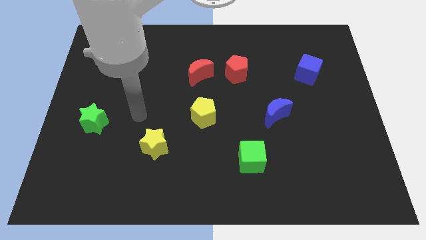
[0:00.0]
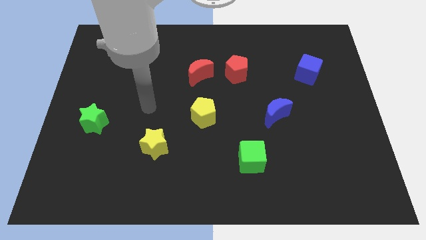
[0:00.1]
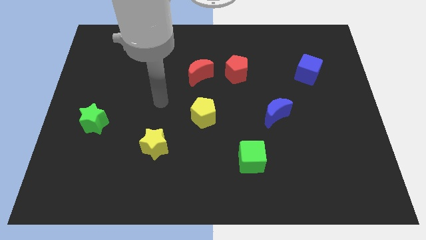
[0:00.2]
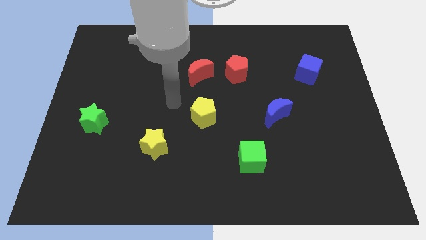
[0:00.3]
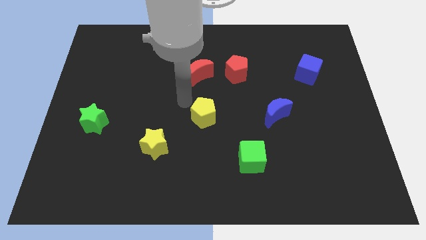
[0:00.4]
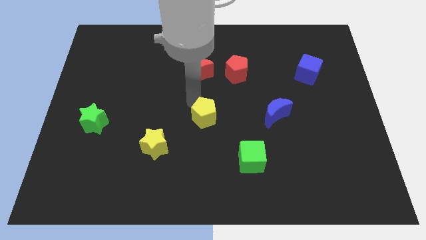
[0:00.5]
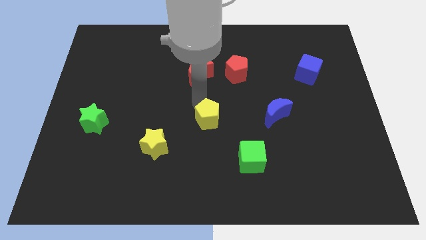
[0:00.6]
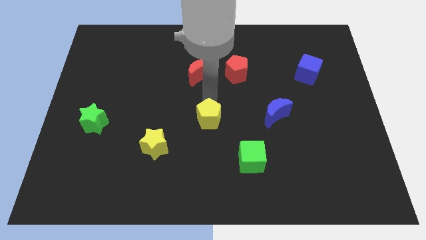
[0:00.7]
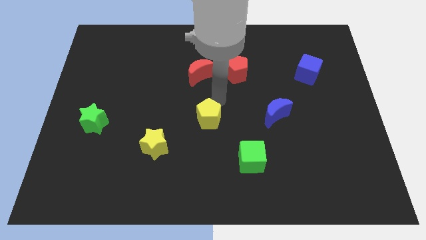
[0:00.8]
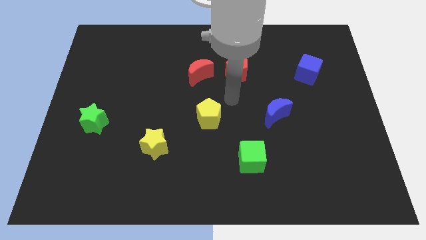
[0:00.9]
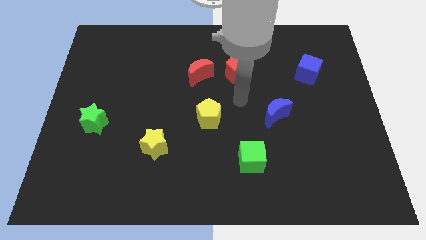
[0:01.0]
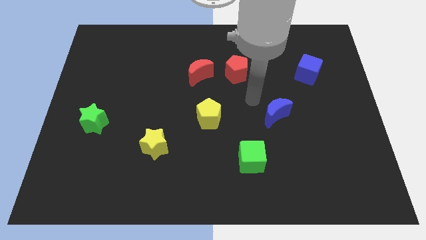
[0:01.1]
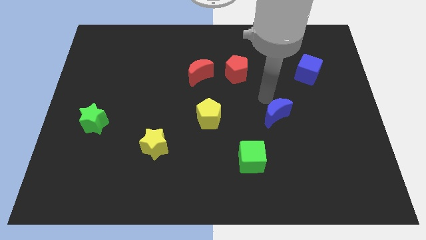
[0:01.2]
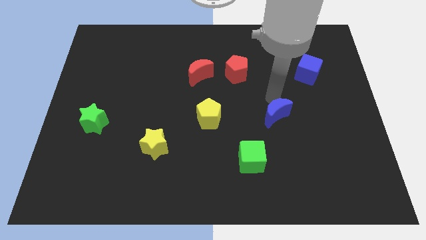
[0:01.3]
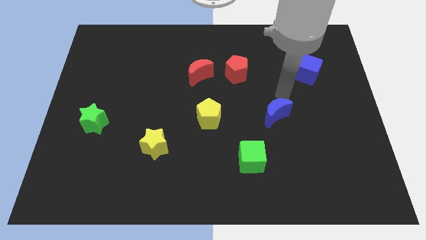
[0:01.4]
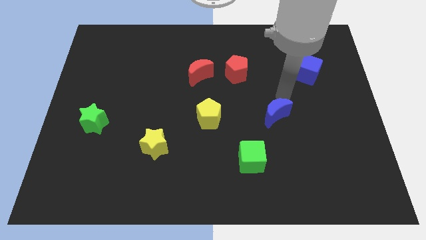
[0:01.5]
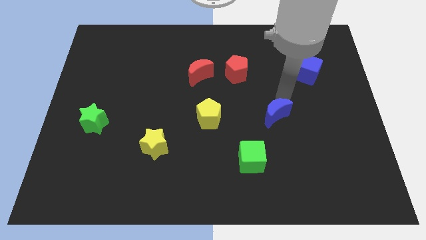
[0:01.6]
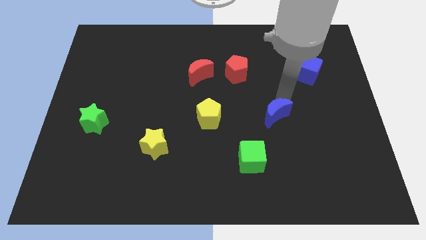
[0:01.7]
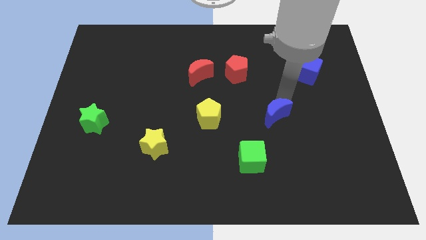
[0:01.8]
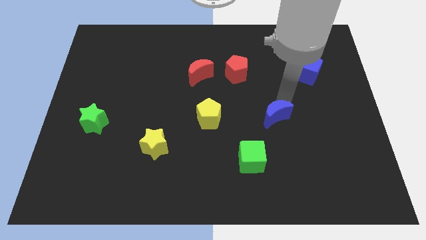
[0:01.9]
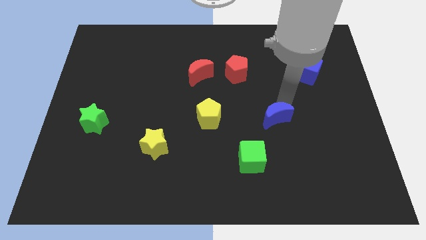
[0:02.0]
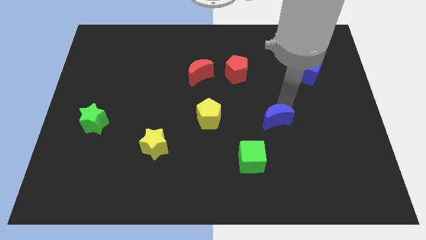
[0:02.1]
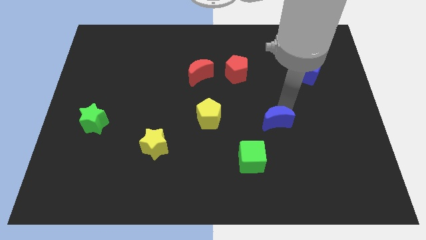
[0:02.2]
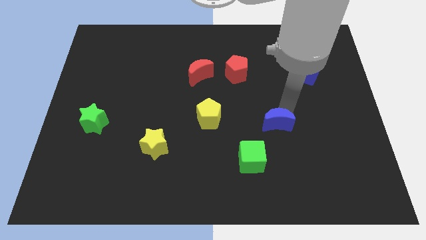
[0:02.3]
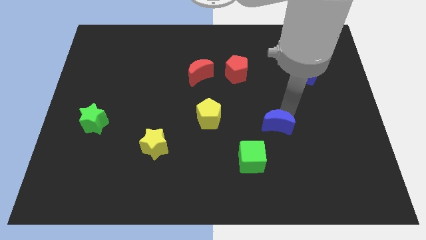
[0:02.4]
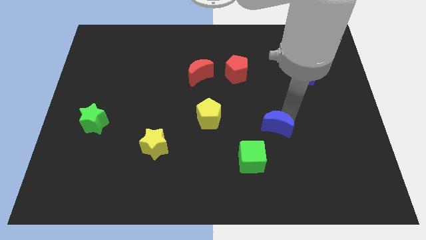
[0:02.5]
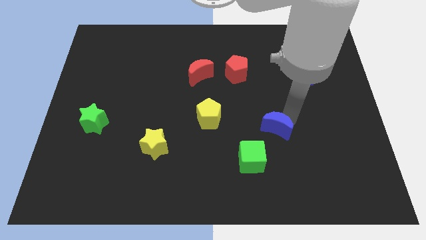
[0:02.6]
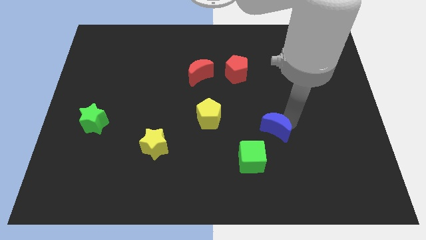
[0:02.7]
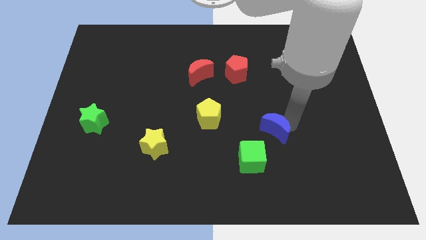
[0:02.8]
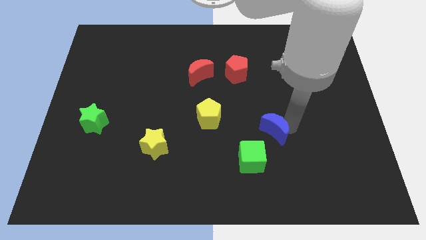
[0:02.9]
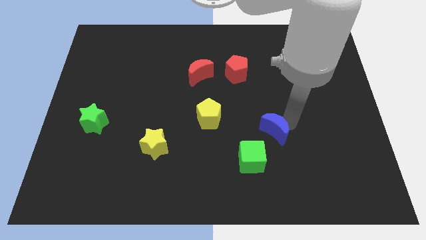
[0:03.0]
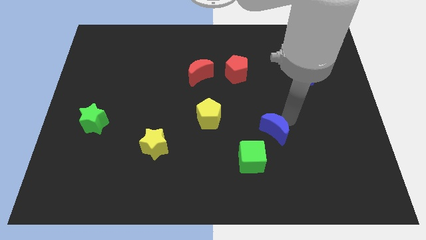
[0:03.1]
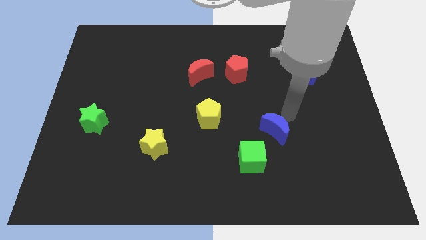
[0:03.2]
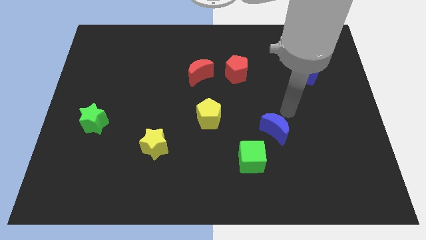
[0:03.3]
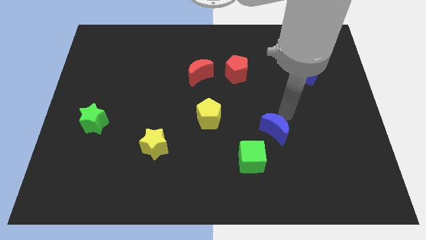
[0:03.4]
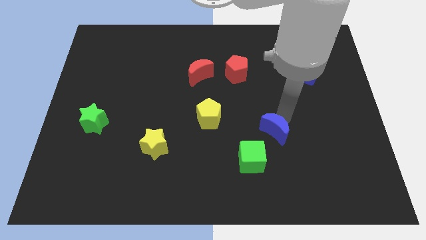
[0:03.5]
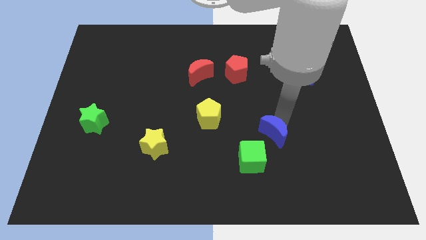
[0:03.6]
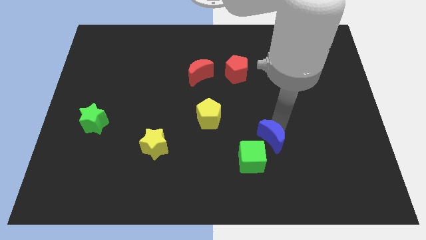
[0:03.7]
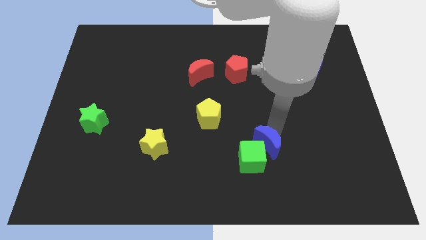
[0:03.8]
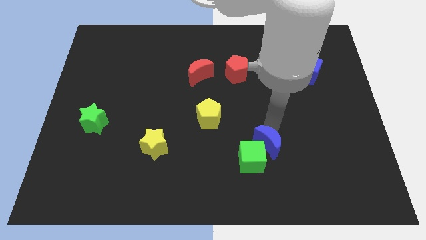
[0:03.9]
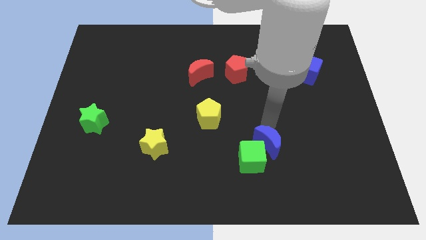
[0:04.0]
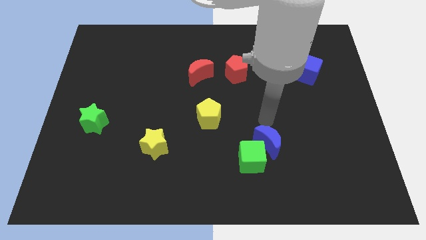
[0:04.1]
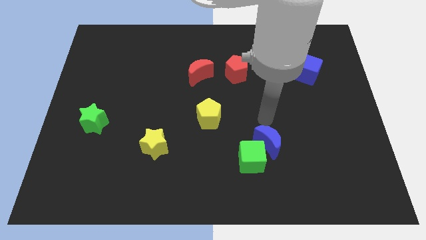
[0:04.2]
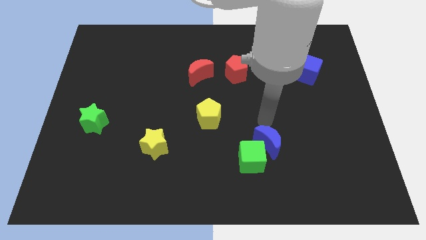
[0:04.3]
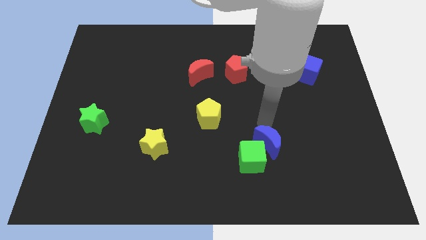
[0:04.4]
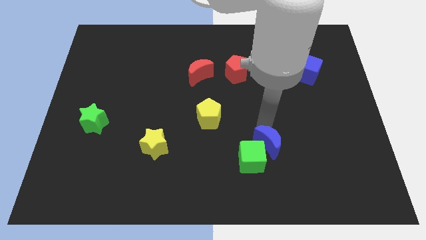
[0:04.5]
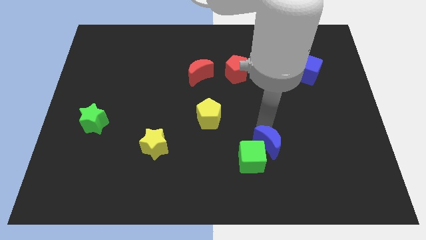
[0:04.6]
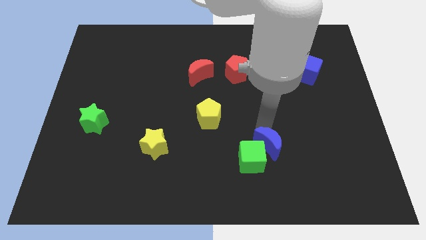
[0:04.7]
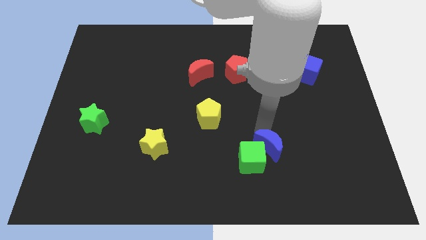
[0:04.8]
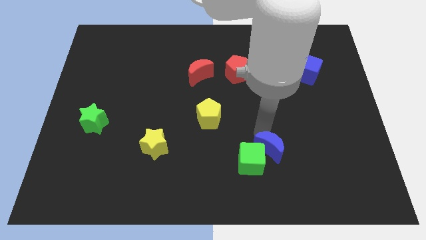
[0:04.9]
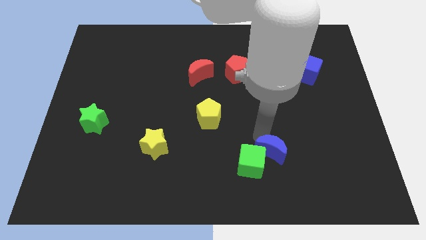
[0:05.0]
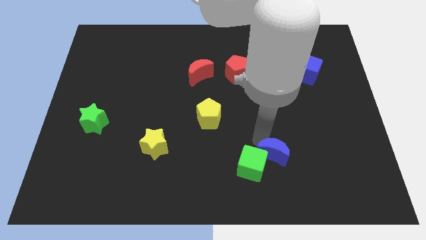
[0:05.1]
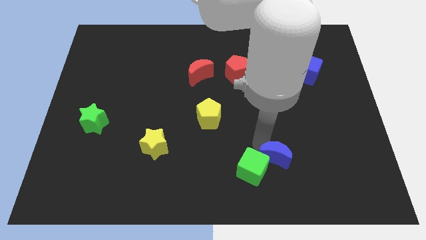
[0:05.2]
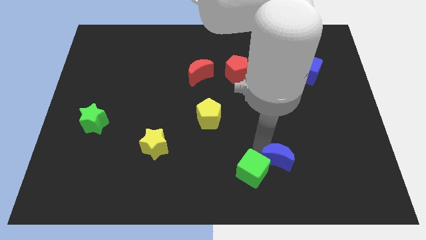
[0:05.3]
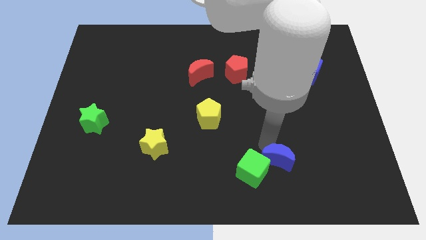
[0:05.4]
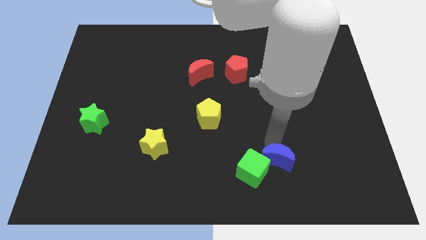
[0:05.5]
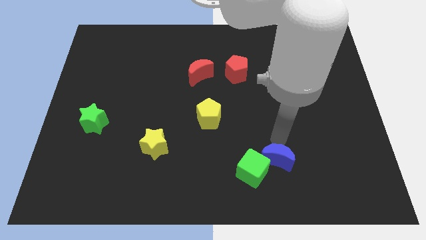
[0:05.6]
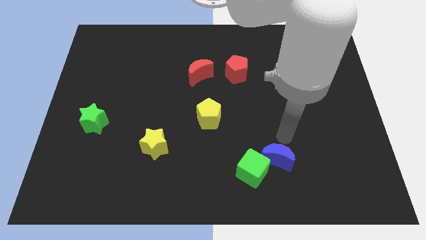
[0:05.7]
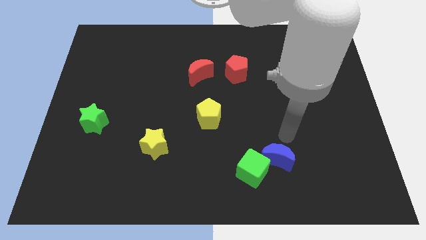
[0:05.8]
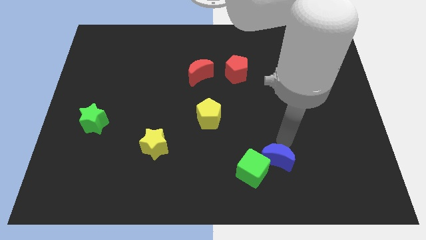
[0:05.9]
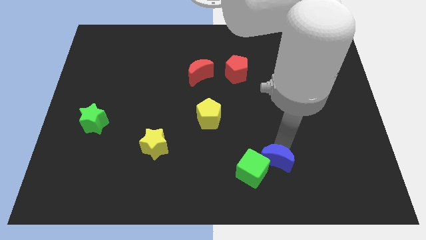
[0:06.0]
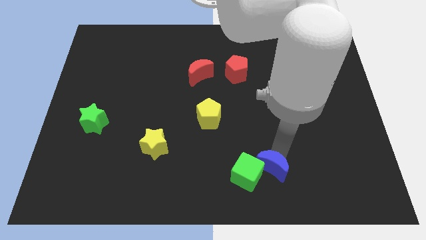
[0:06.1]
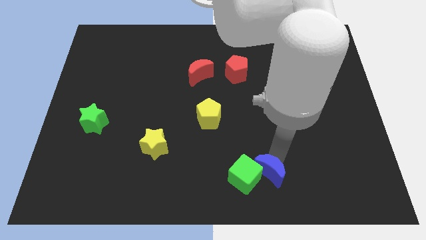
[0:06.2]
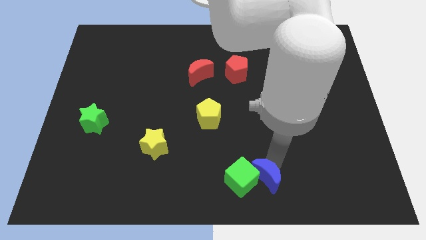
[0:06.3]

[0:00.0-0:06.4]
put the blue moon to the bottom

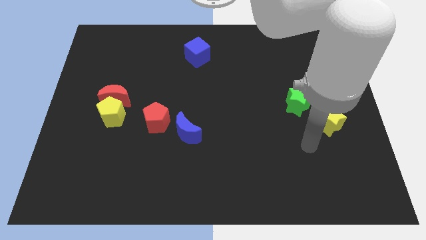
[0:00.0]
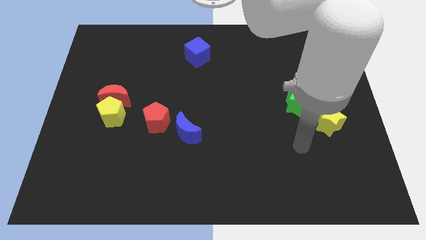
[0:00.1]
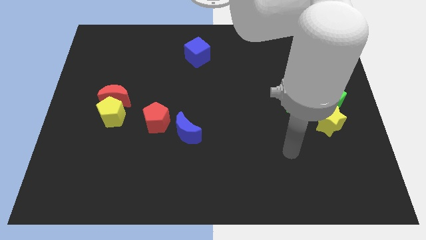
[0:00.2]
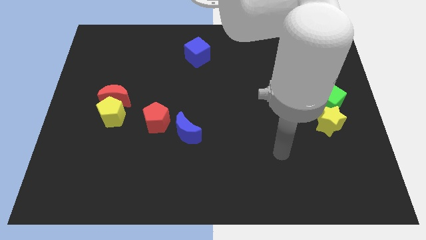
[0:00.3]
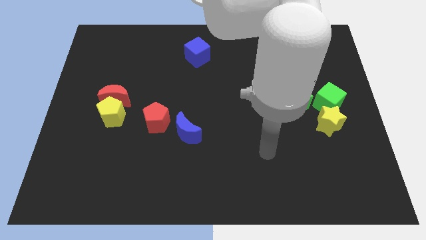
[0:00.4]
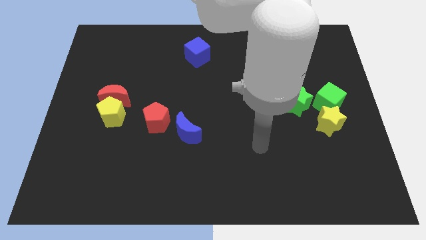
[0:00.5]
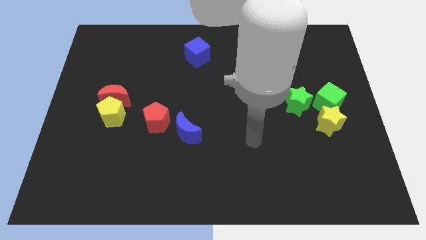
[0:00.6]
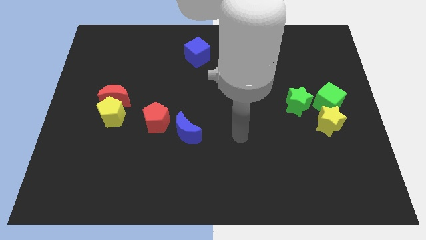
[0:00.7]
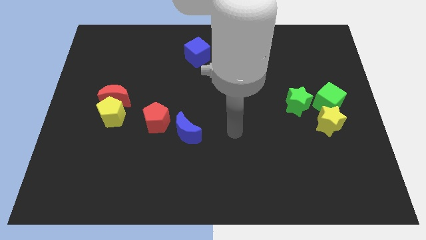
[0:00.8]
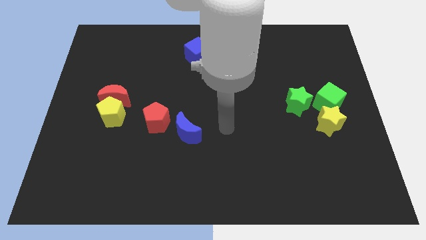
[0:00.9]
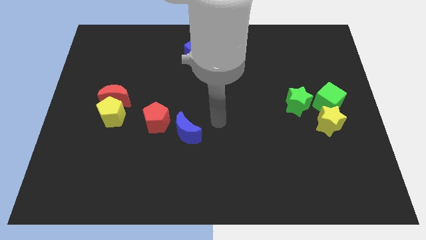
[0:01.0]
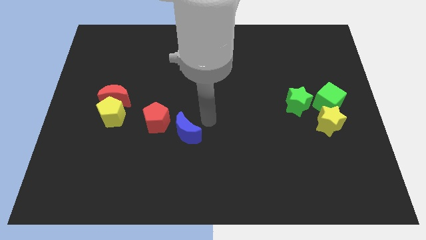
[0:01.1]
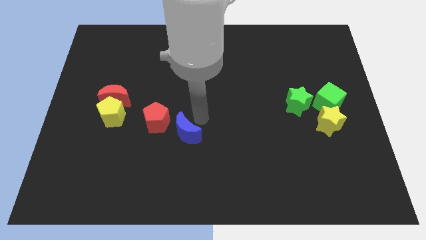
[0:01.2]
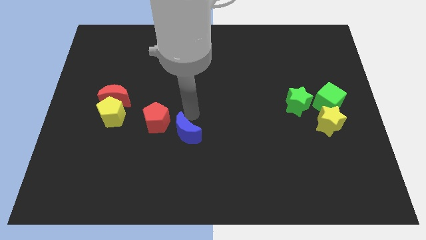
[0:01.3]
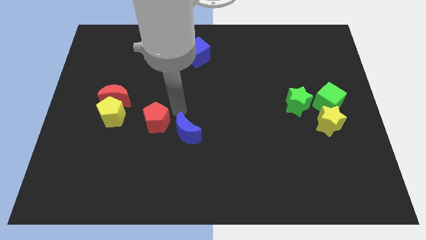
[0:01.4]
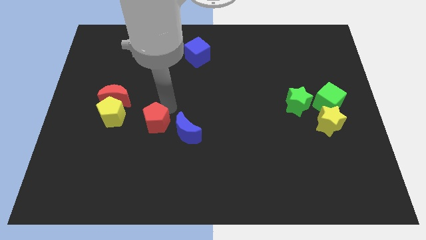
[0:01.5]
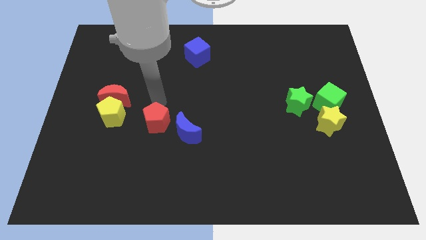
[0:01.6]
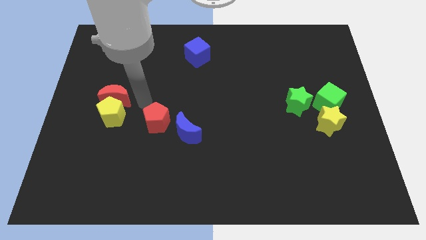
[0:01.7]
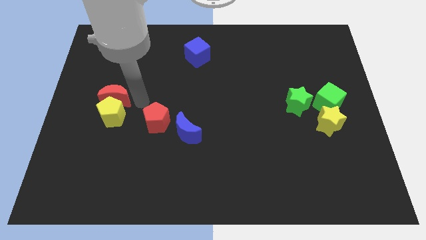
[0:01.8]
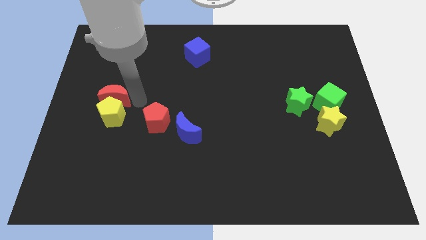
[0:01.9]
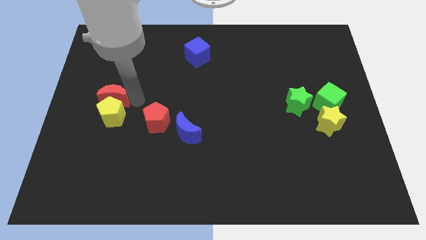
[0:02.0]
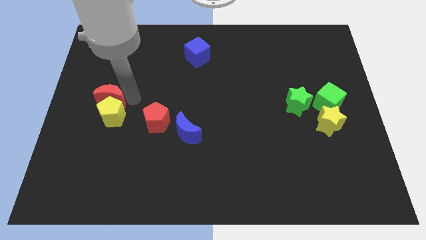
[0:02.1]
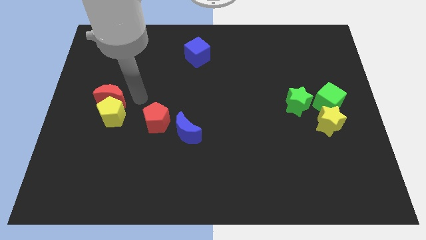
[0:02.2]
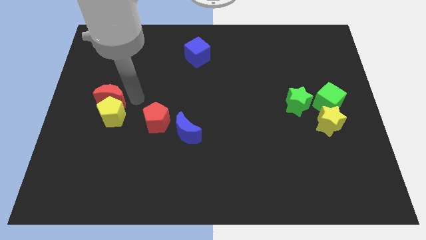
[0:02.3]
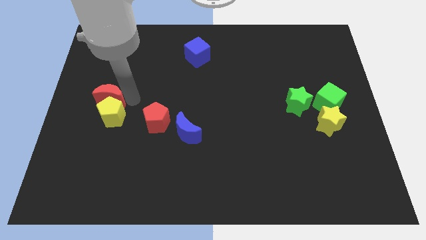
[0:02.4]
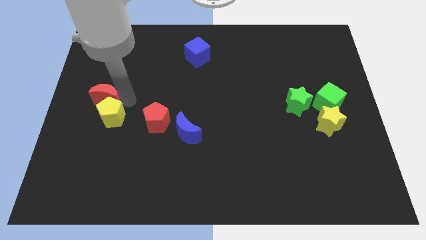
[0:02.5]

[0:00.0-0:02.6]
slide the red moon to the center left
